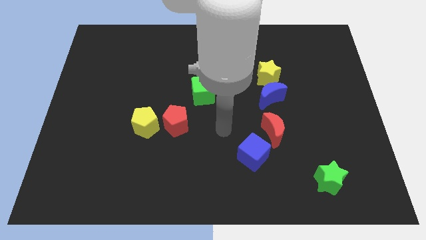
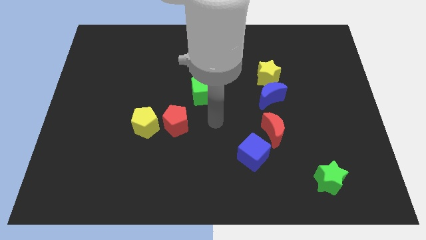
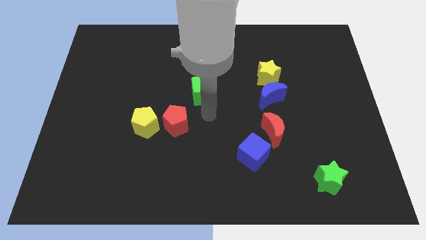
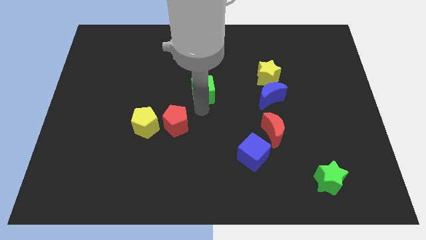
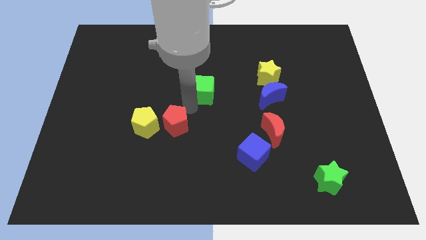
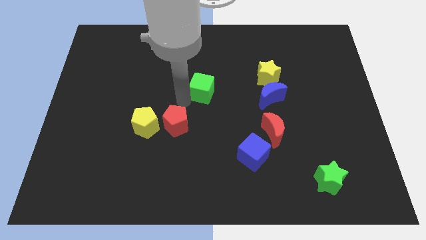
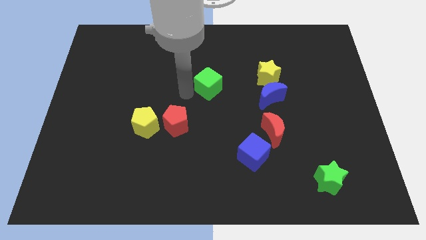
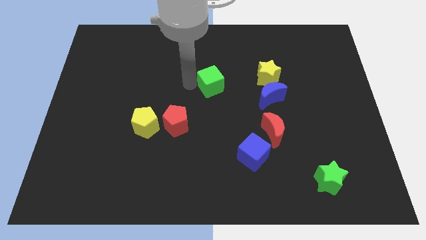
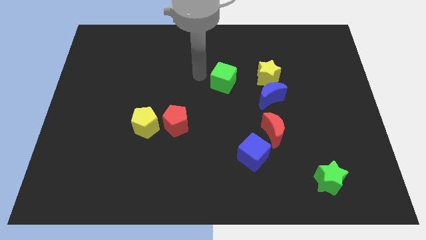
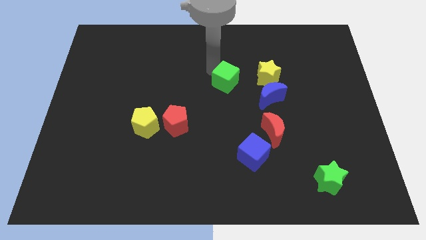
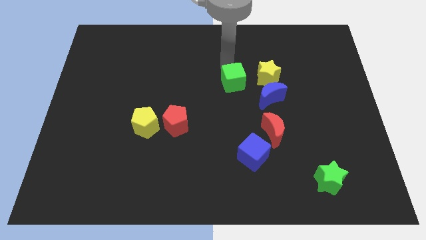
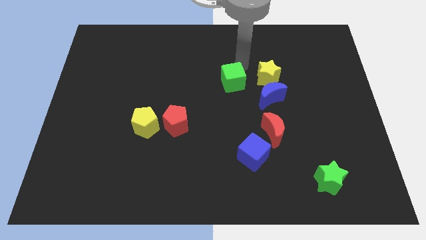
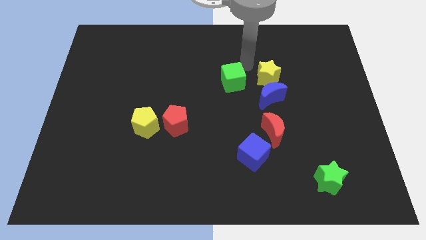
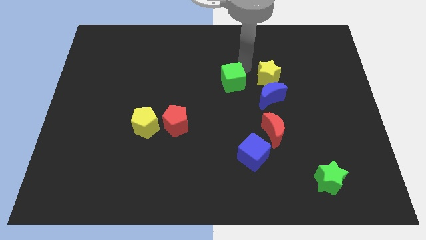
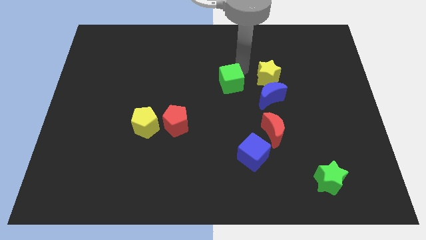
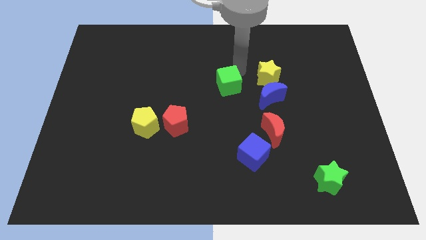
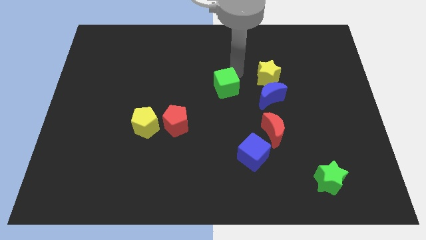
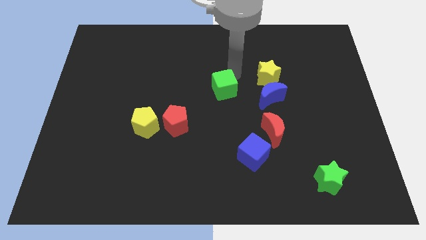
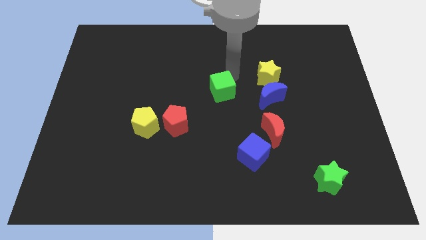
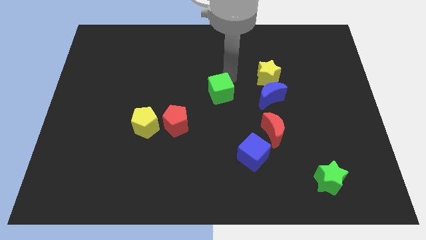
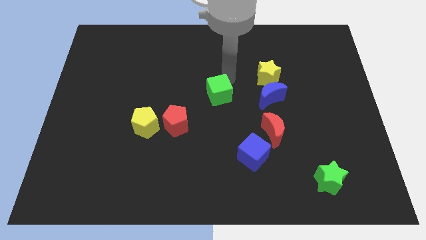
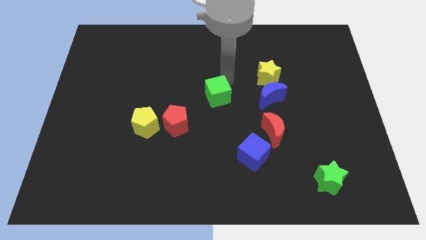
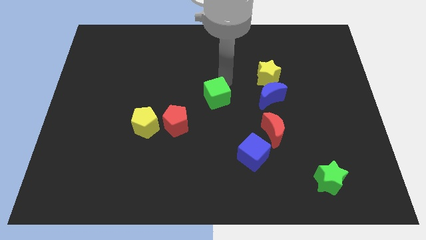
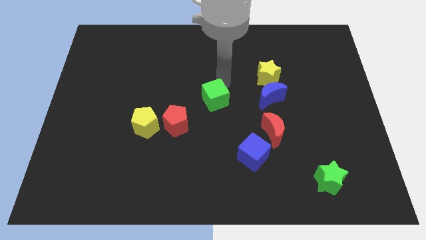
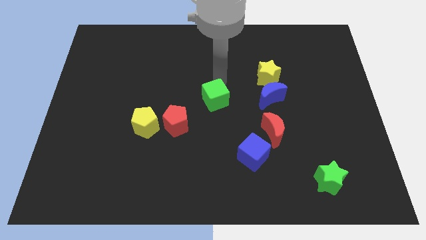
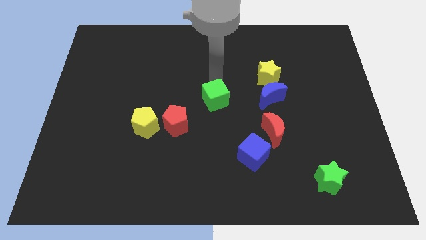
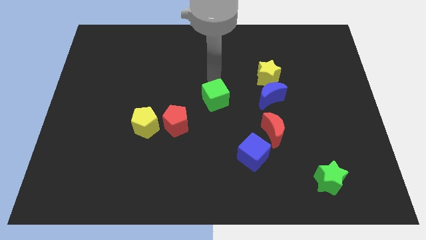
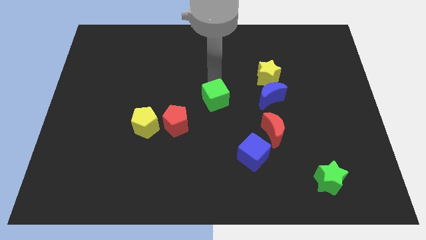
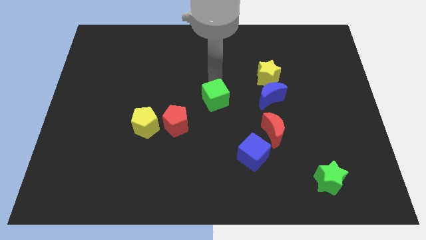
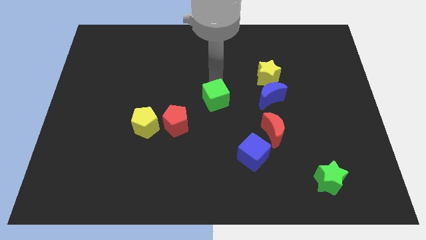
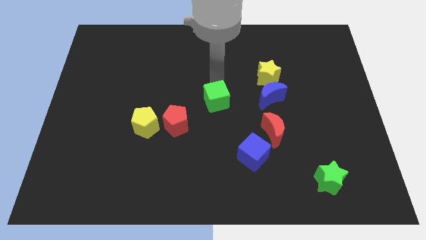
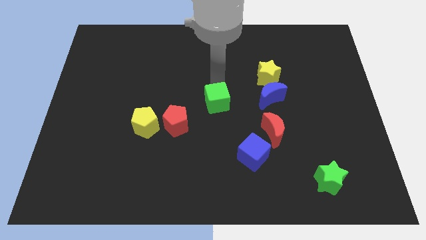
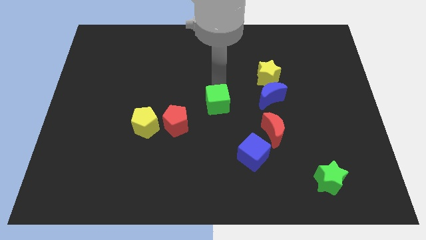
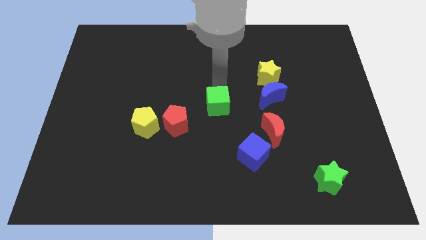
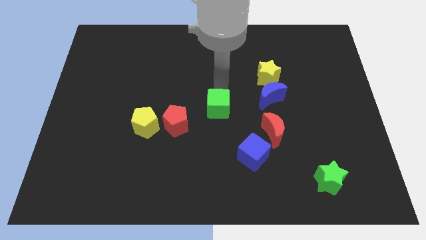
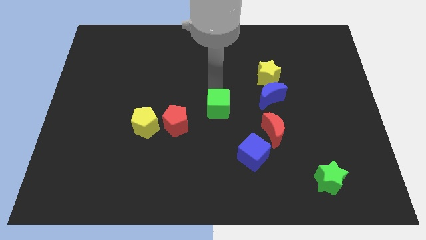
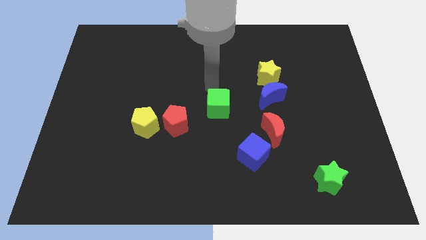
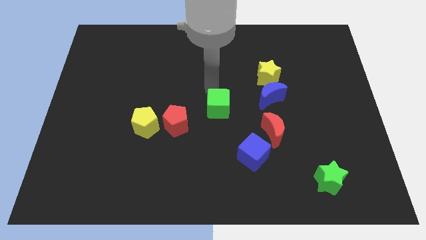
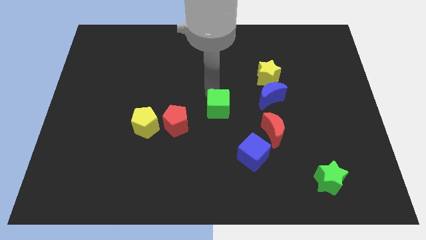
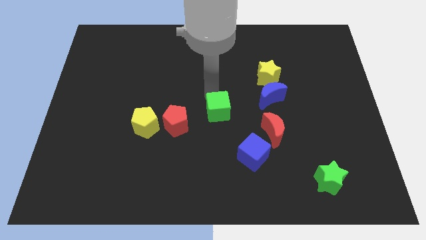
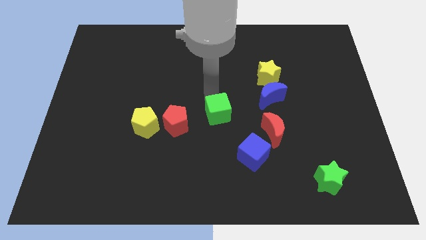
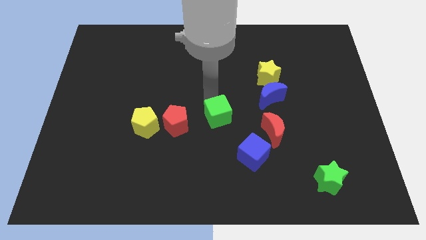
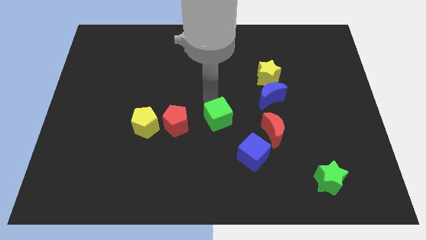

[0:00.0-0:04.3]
put the green cube to the top left of the blue cube

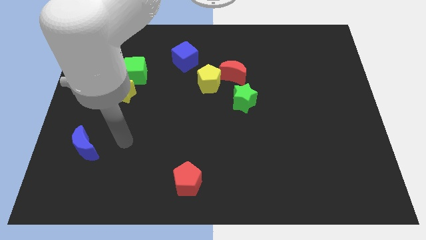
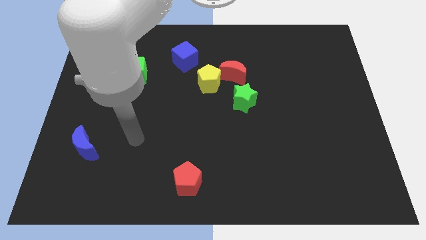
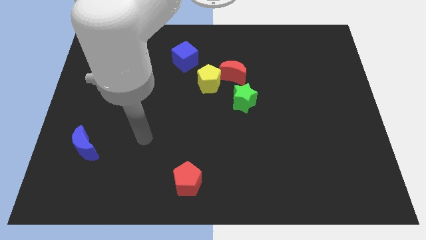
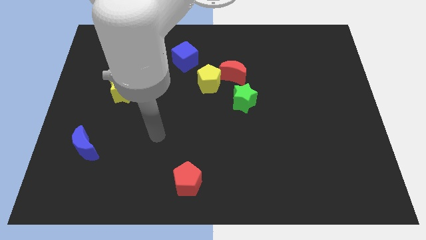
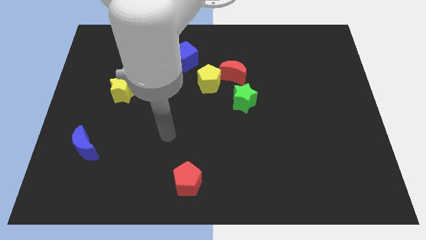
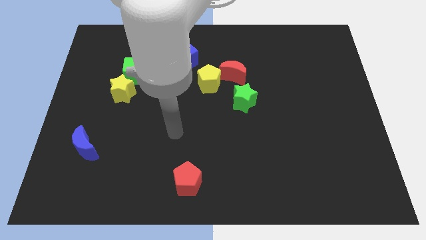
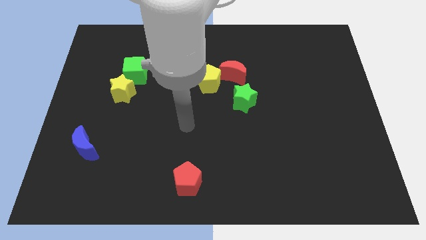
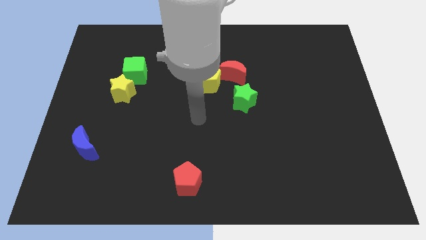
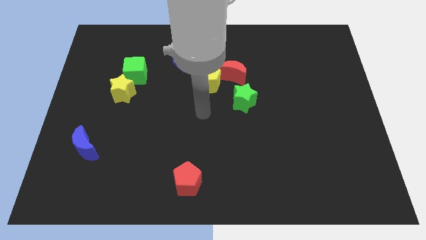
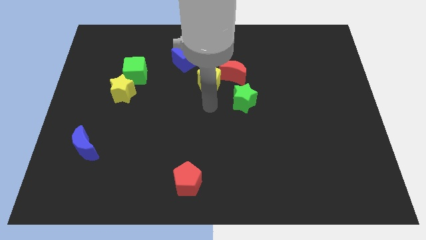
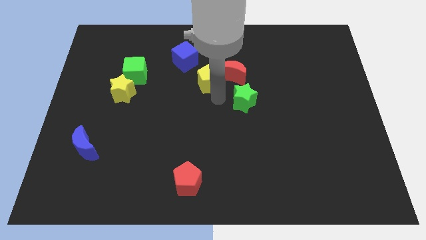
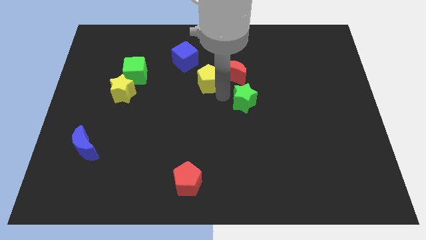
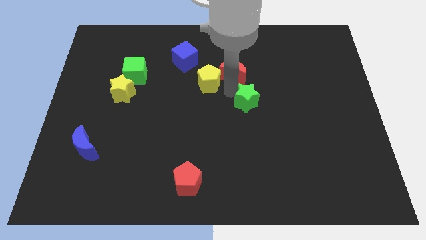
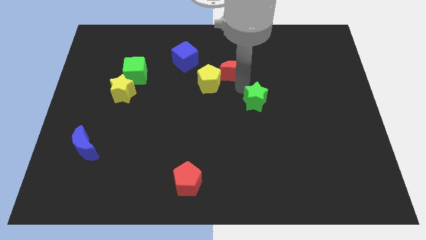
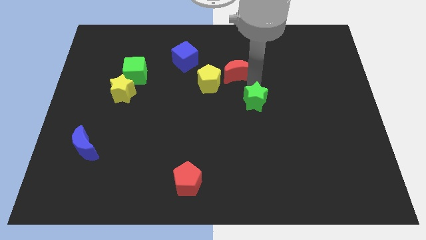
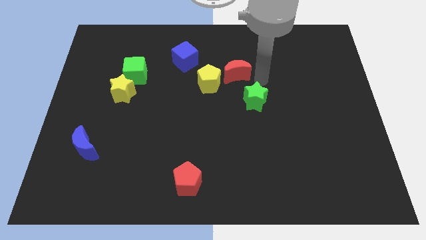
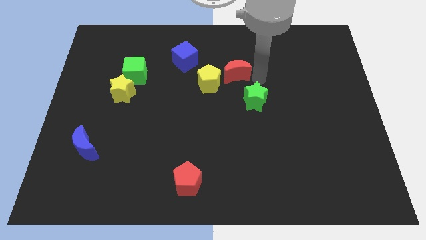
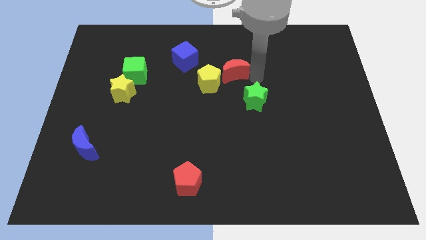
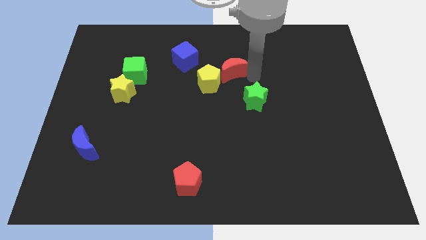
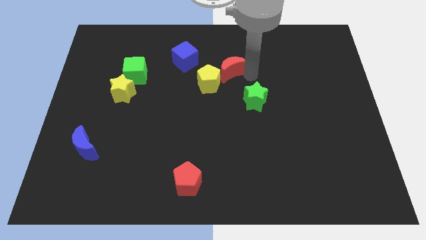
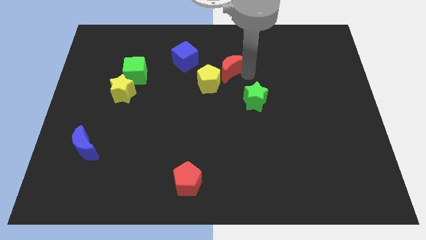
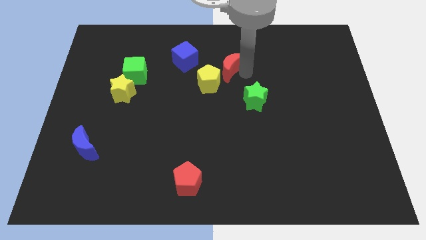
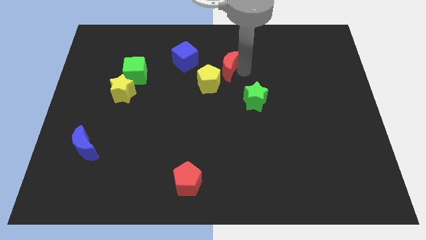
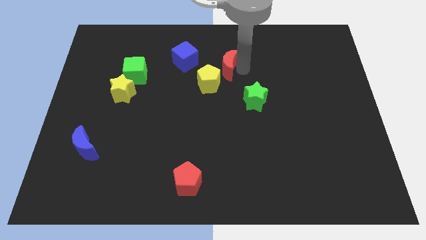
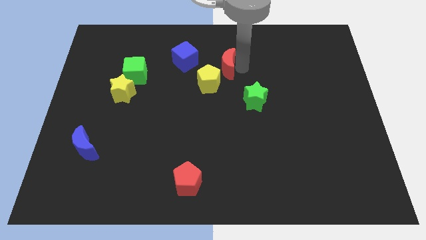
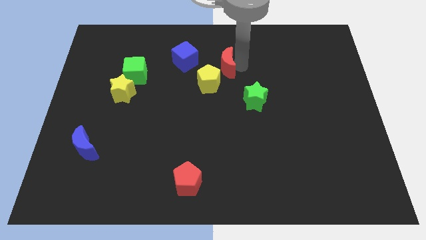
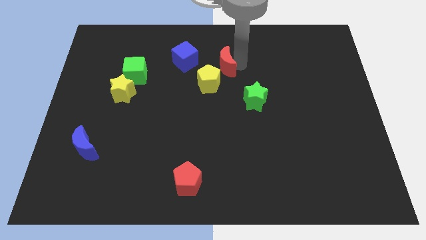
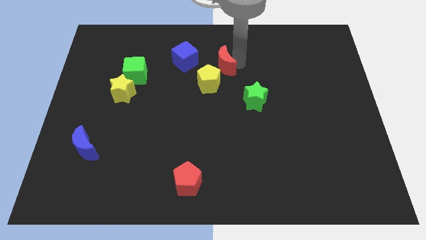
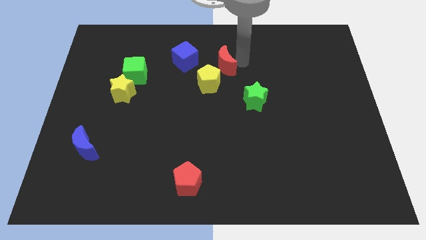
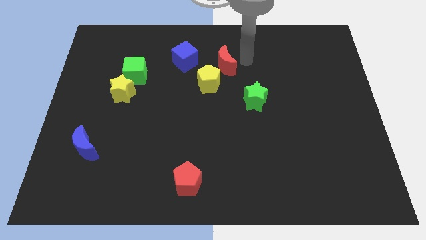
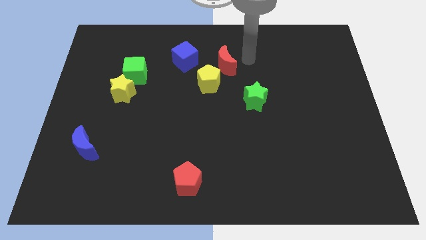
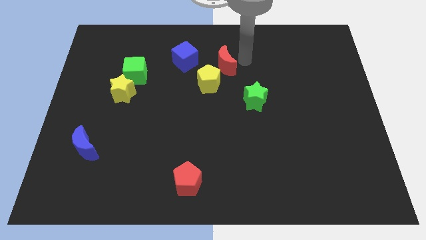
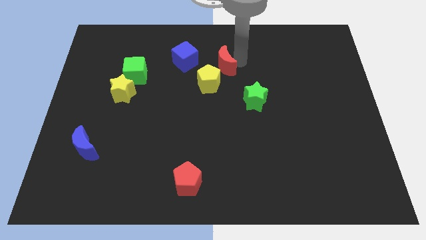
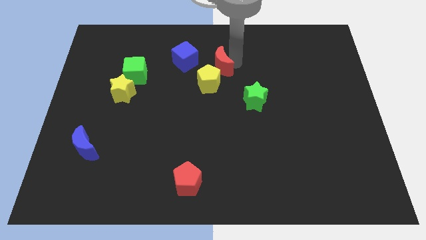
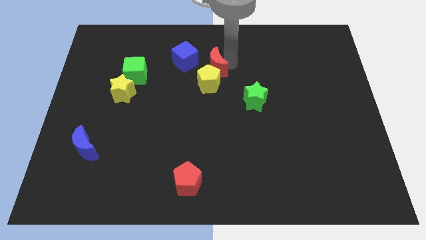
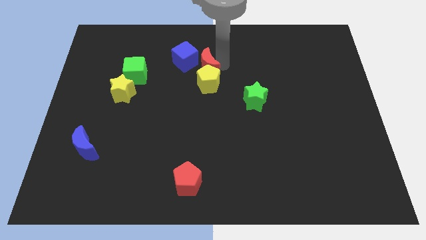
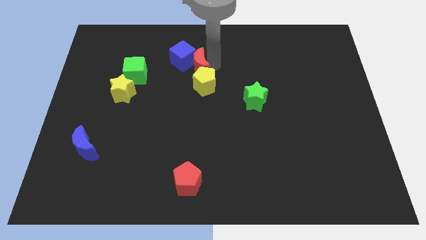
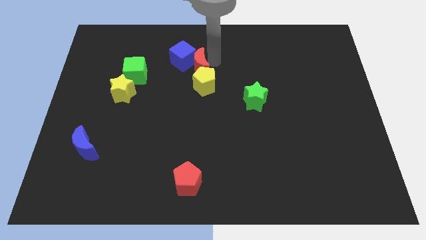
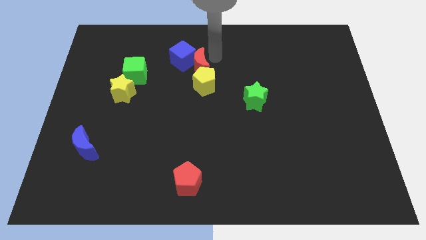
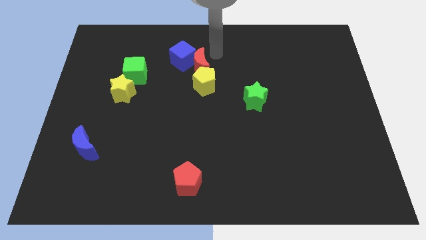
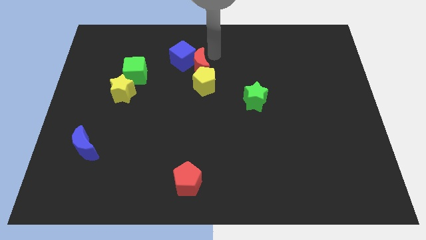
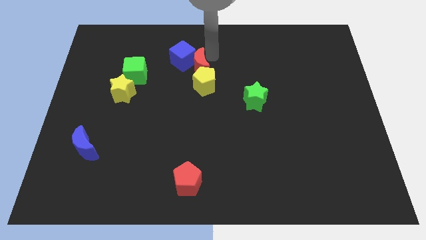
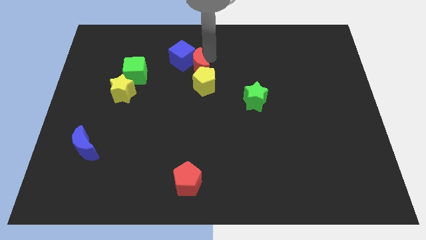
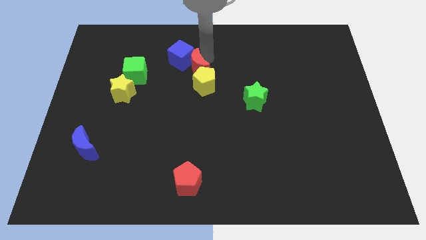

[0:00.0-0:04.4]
put the red moon just right of the green cube
